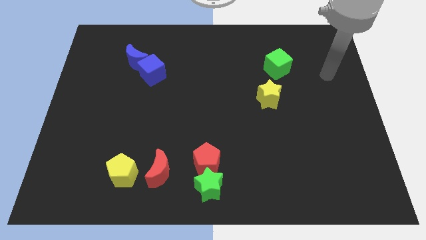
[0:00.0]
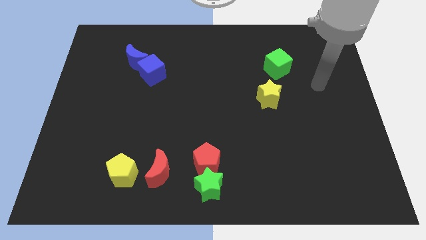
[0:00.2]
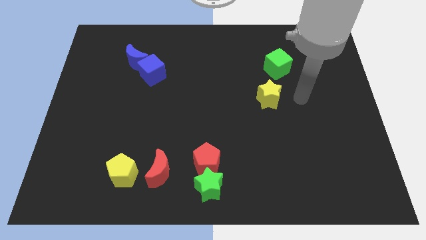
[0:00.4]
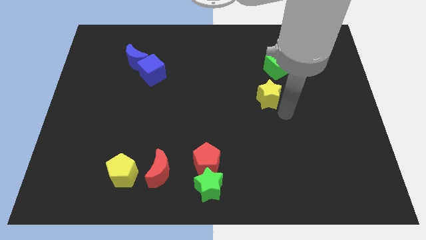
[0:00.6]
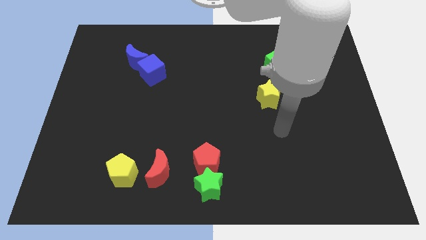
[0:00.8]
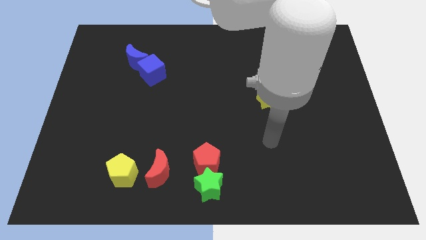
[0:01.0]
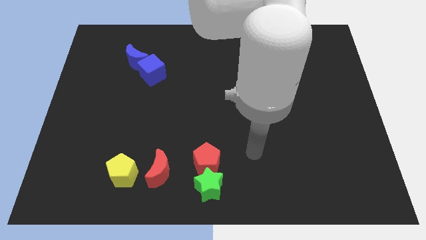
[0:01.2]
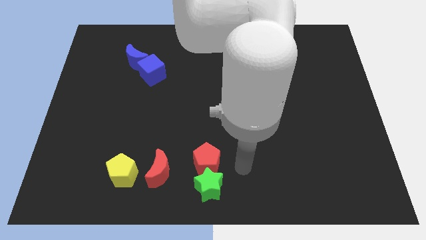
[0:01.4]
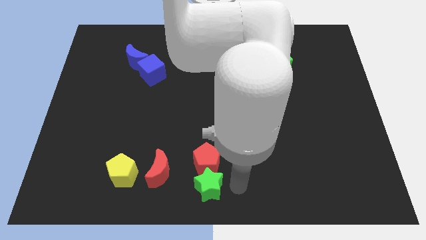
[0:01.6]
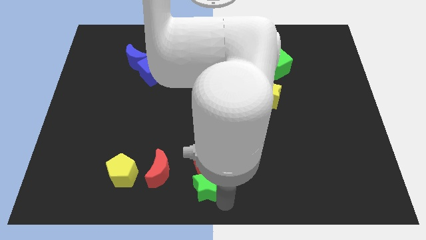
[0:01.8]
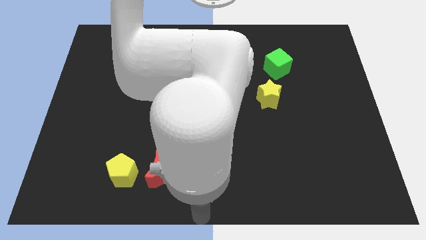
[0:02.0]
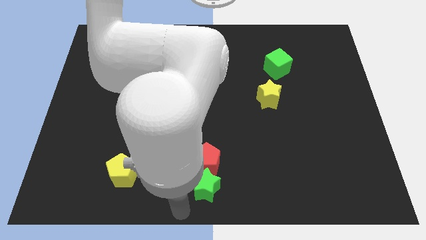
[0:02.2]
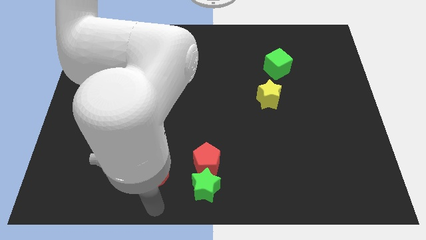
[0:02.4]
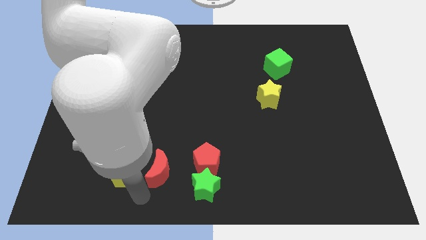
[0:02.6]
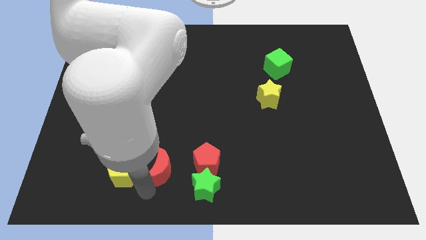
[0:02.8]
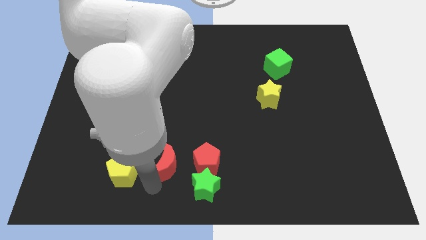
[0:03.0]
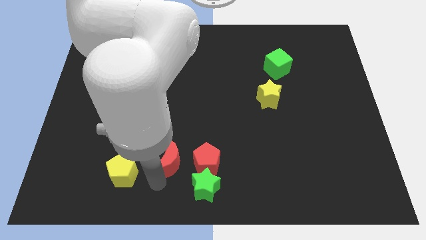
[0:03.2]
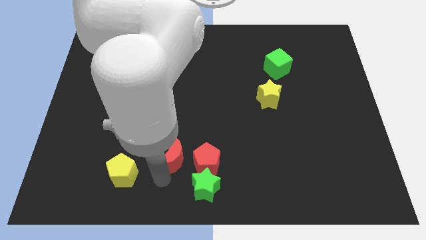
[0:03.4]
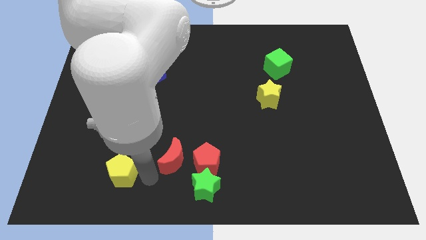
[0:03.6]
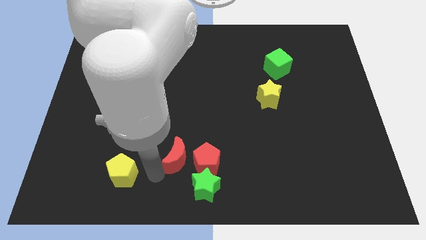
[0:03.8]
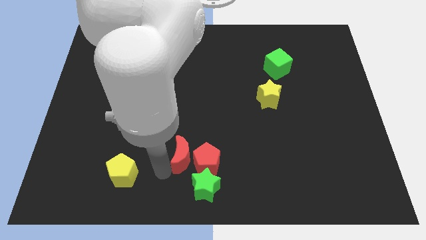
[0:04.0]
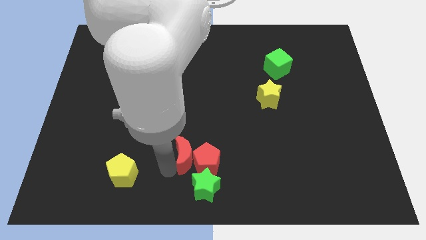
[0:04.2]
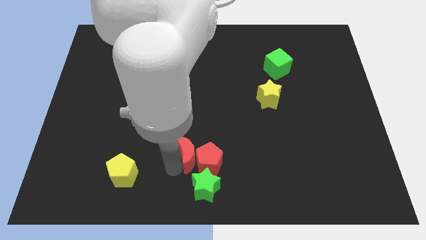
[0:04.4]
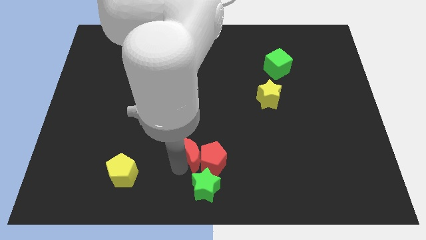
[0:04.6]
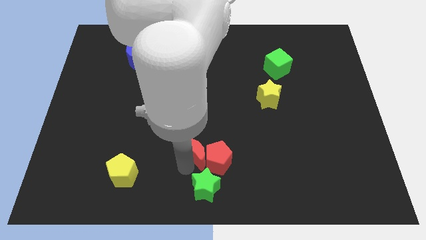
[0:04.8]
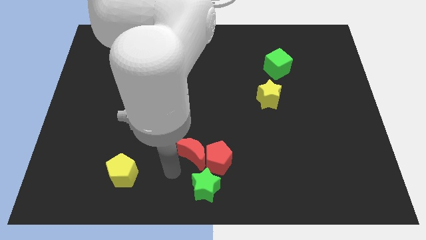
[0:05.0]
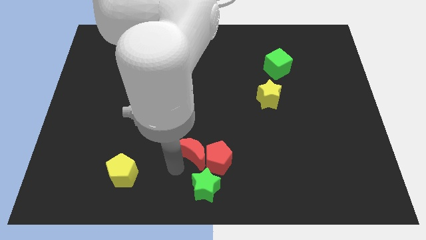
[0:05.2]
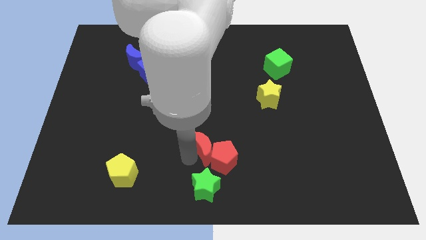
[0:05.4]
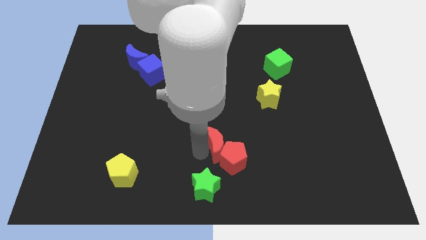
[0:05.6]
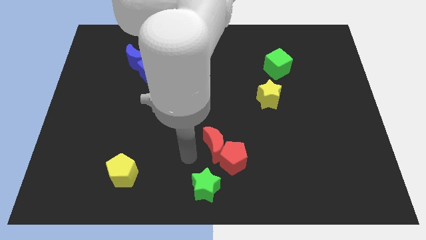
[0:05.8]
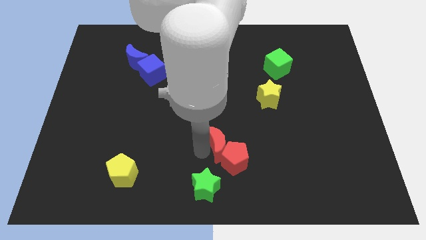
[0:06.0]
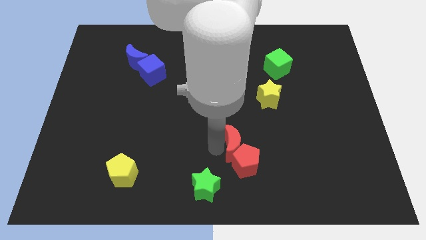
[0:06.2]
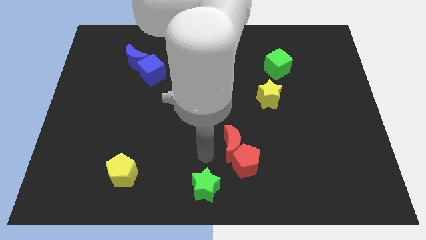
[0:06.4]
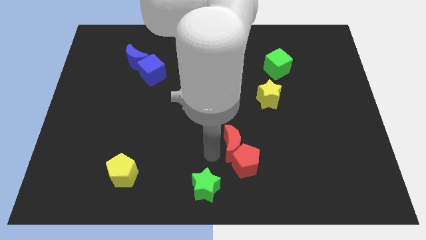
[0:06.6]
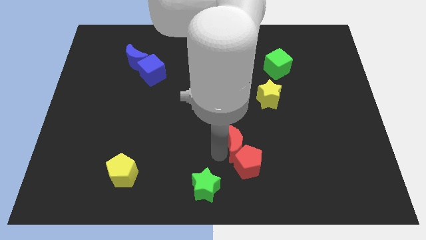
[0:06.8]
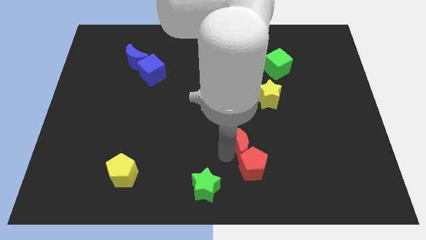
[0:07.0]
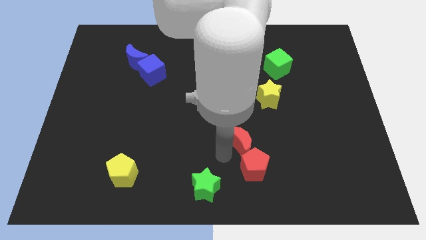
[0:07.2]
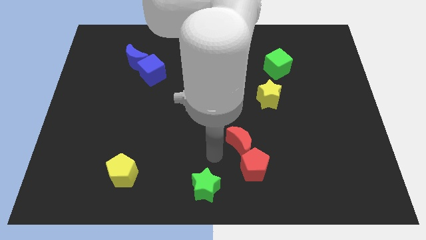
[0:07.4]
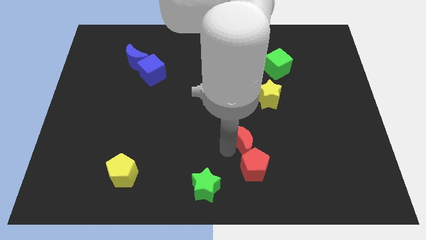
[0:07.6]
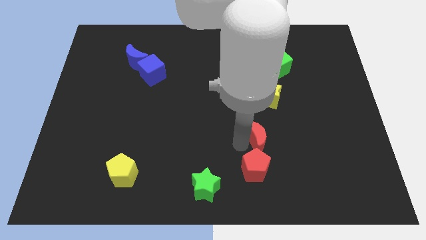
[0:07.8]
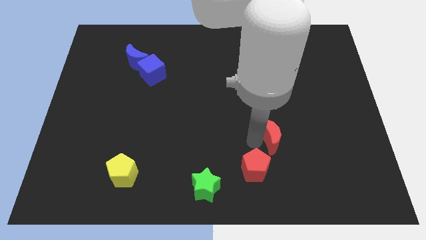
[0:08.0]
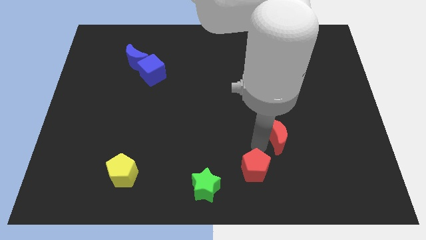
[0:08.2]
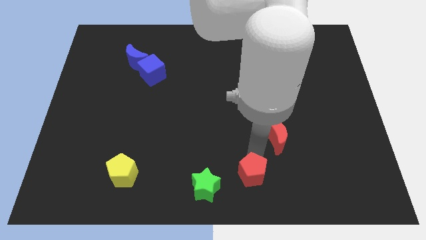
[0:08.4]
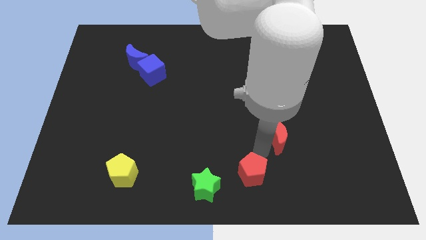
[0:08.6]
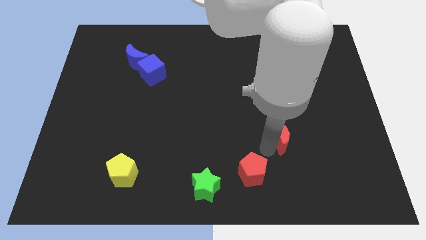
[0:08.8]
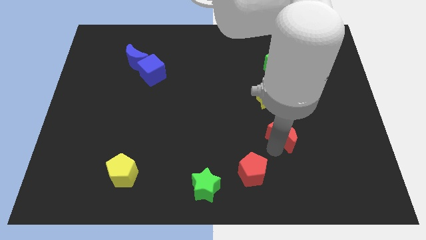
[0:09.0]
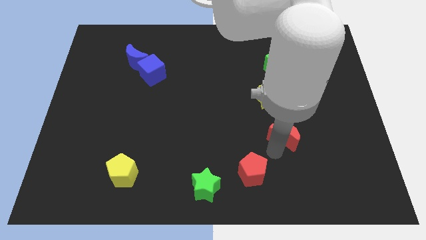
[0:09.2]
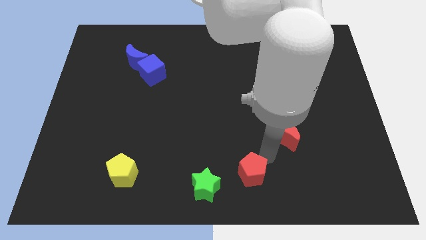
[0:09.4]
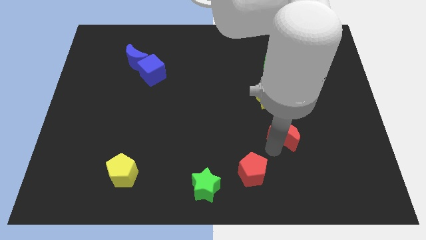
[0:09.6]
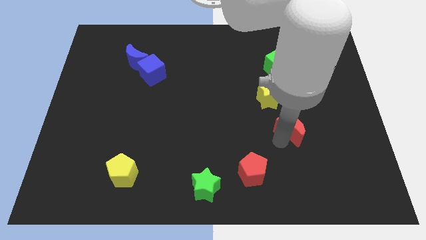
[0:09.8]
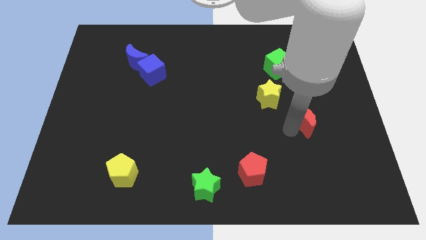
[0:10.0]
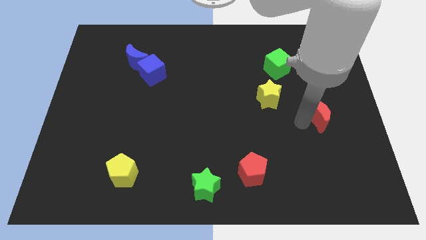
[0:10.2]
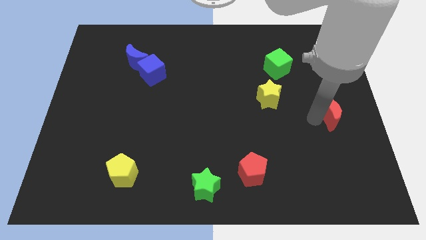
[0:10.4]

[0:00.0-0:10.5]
move the red moon to the center right

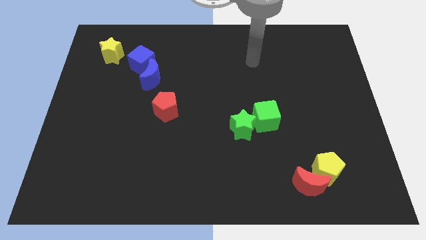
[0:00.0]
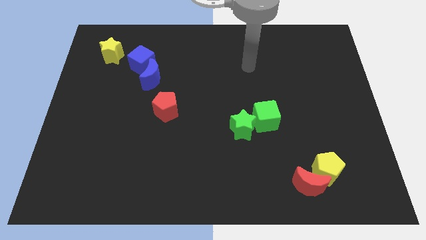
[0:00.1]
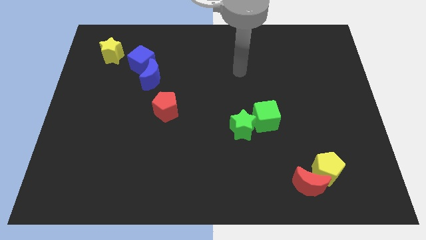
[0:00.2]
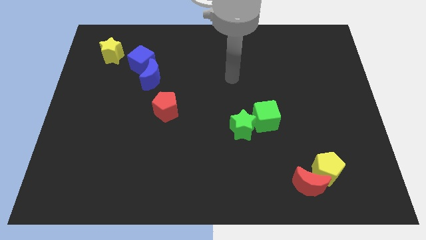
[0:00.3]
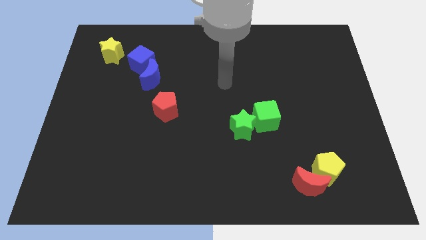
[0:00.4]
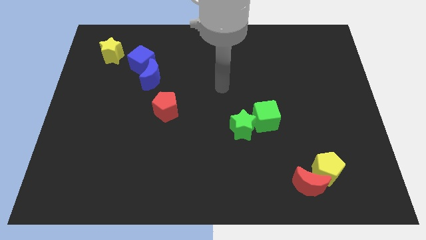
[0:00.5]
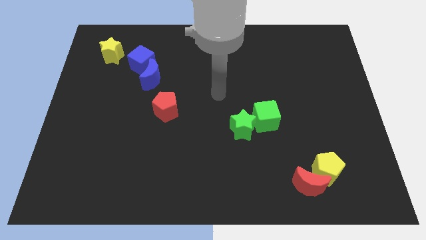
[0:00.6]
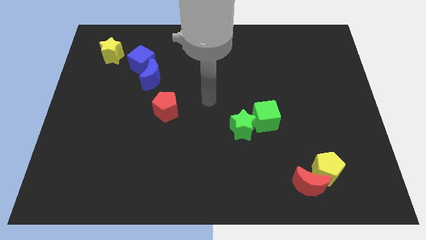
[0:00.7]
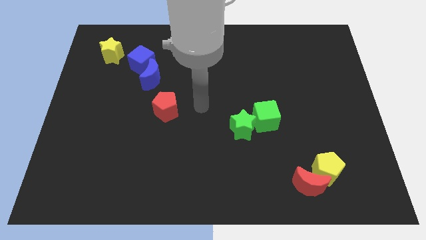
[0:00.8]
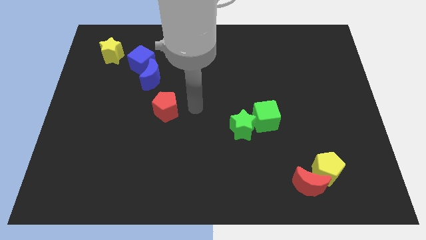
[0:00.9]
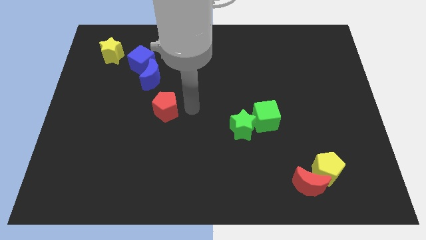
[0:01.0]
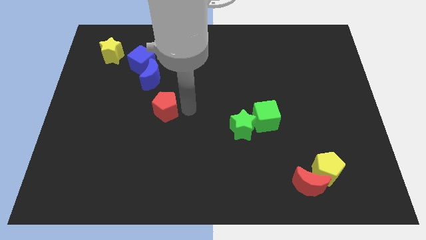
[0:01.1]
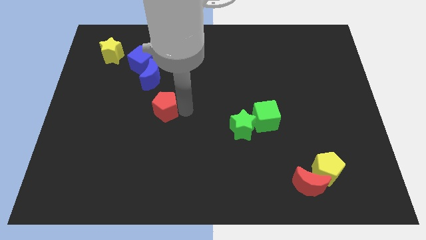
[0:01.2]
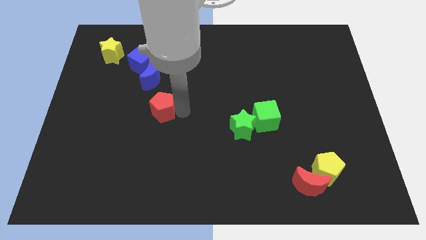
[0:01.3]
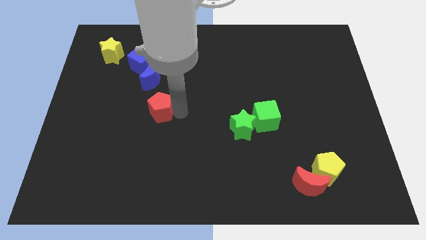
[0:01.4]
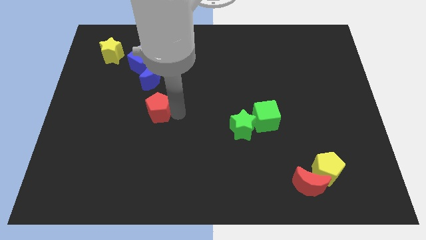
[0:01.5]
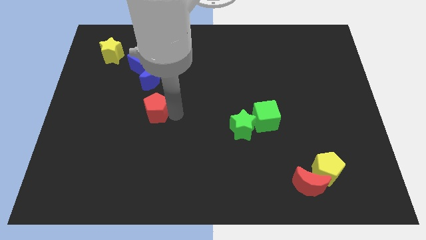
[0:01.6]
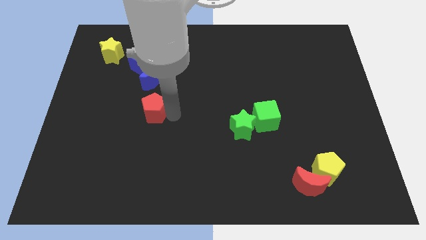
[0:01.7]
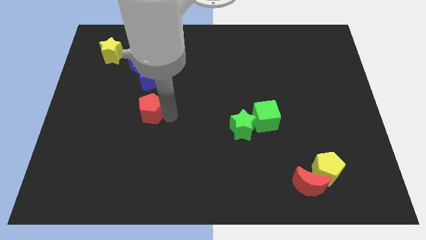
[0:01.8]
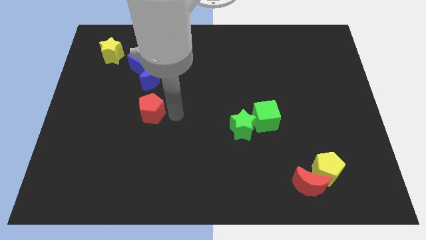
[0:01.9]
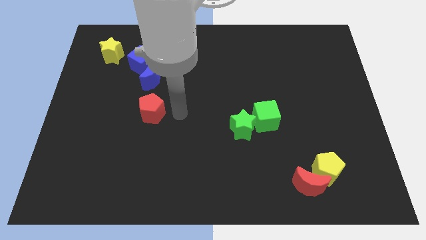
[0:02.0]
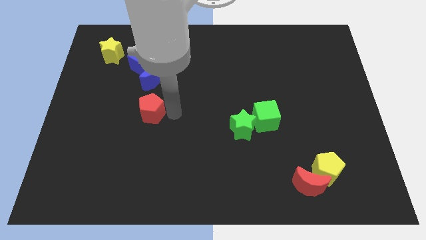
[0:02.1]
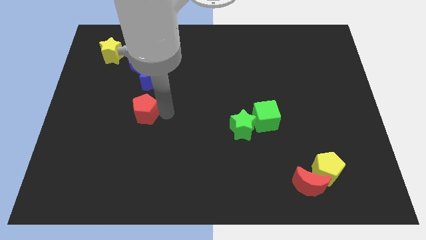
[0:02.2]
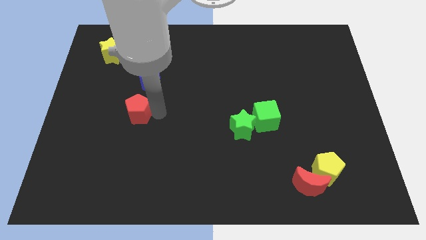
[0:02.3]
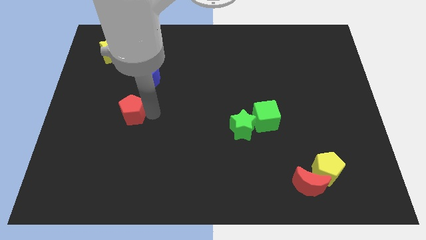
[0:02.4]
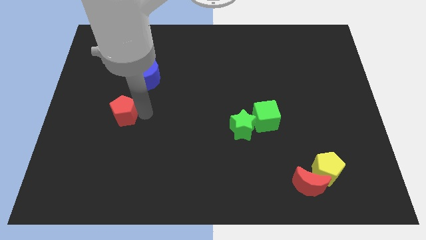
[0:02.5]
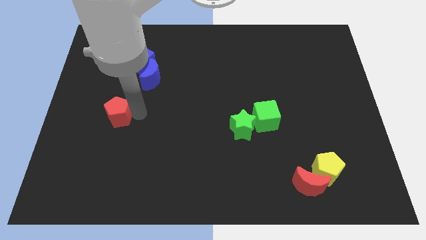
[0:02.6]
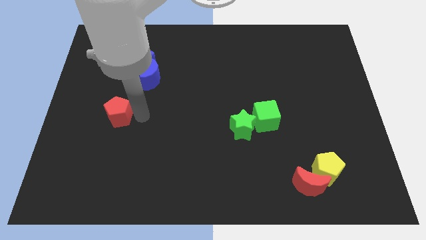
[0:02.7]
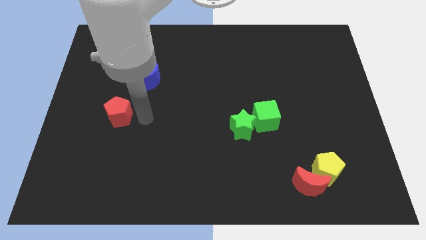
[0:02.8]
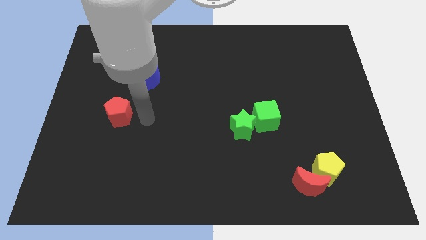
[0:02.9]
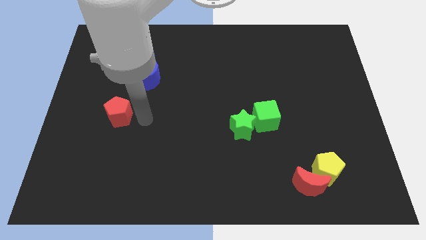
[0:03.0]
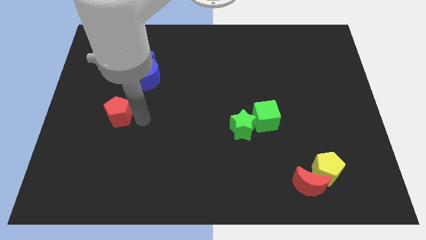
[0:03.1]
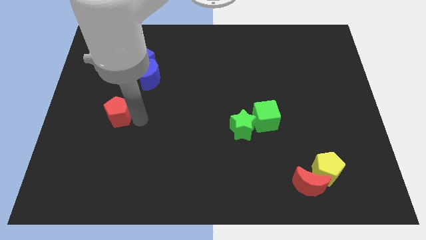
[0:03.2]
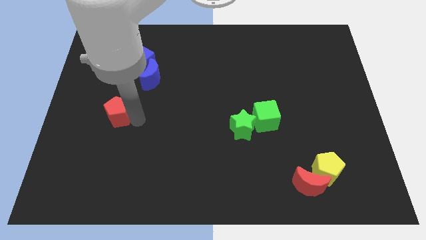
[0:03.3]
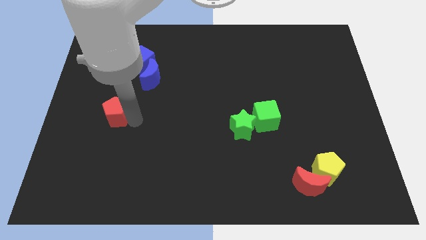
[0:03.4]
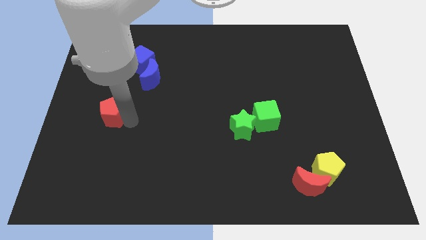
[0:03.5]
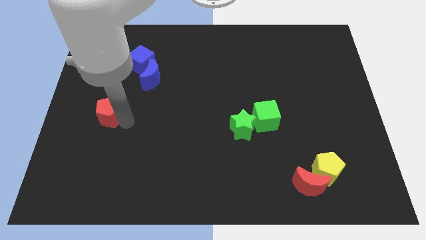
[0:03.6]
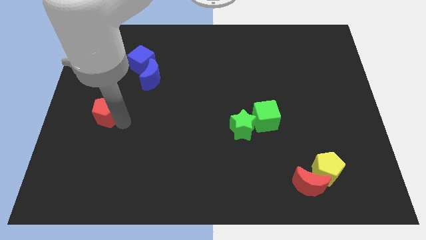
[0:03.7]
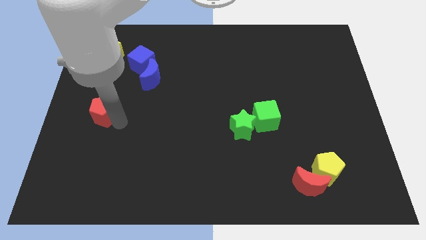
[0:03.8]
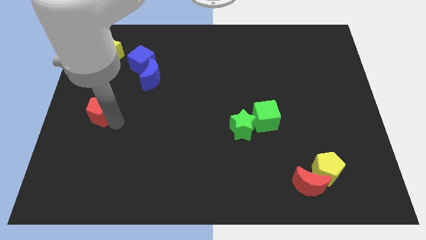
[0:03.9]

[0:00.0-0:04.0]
slide the red pentagon to the left side of the board
